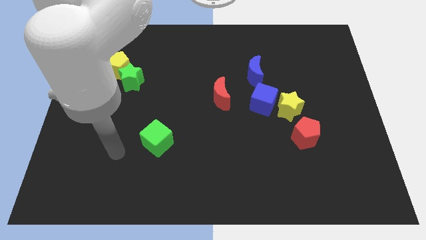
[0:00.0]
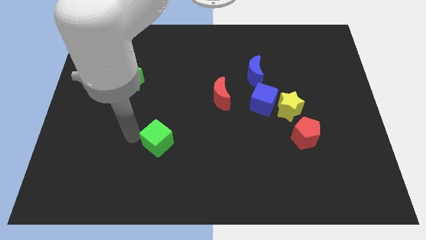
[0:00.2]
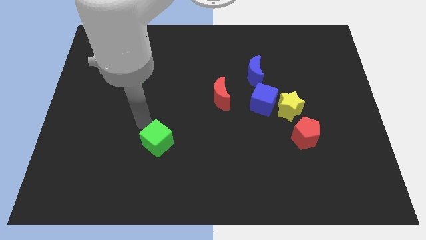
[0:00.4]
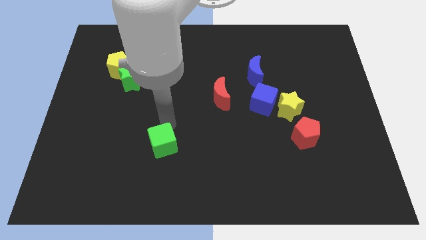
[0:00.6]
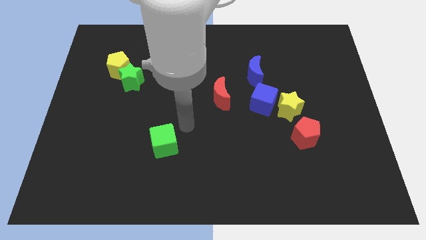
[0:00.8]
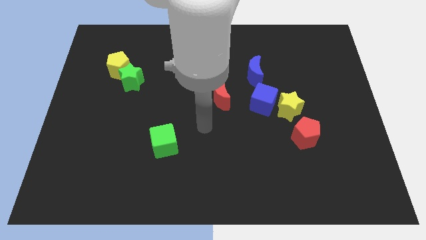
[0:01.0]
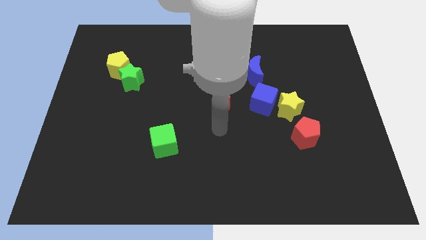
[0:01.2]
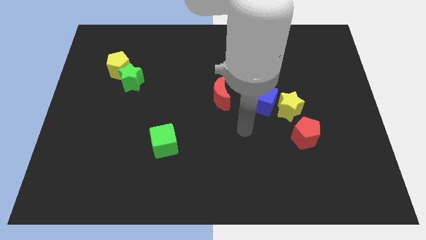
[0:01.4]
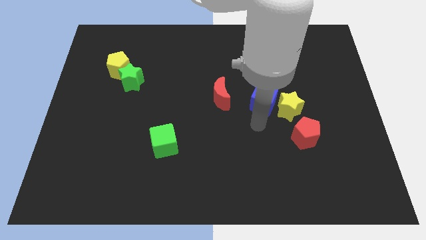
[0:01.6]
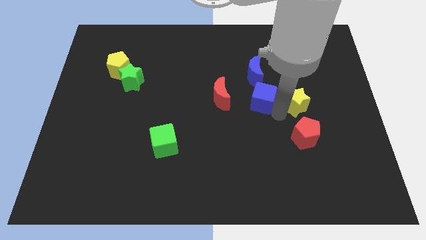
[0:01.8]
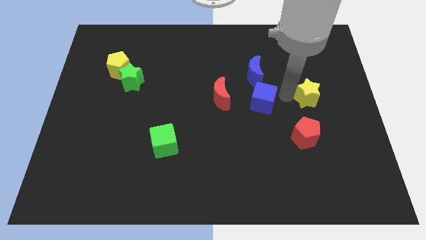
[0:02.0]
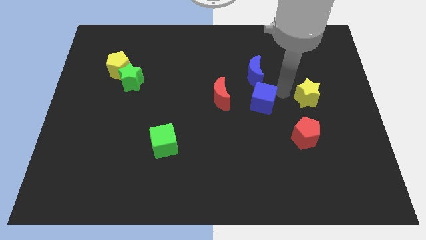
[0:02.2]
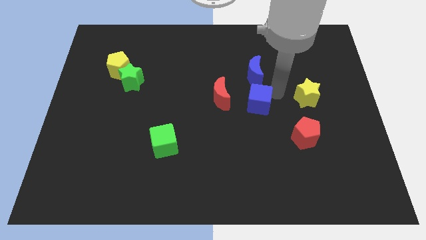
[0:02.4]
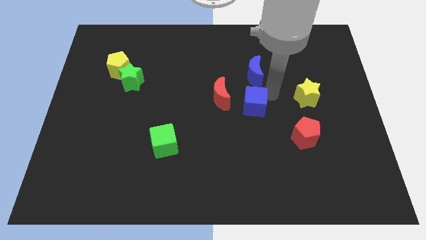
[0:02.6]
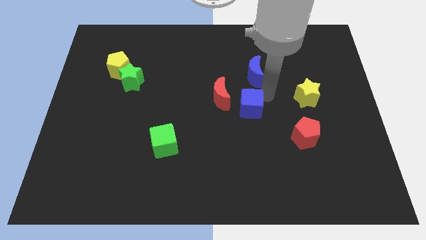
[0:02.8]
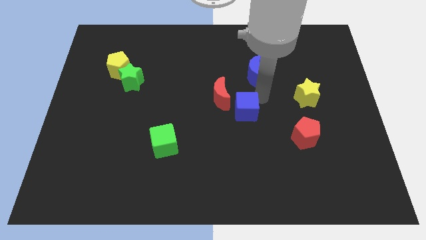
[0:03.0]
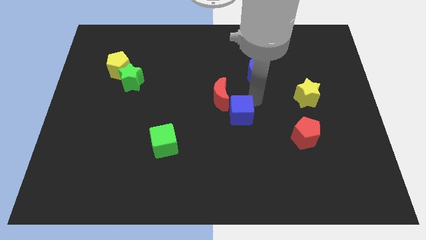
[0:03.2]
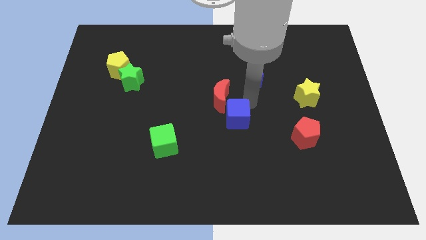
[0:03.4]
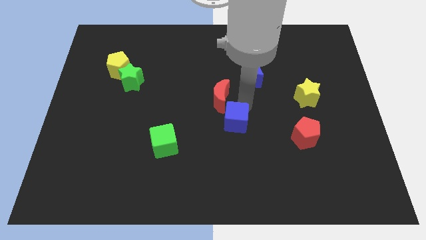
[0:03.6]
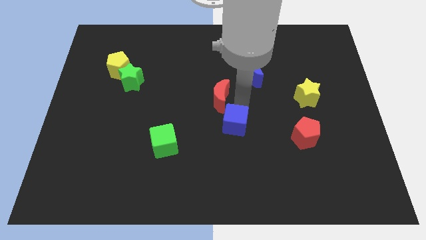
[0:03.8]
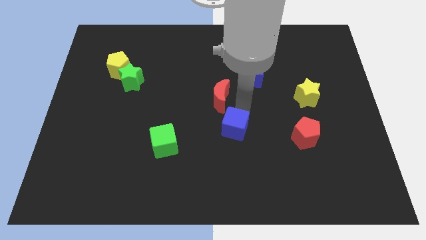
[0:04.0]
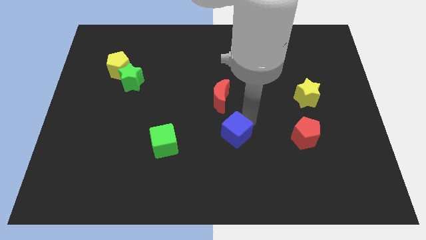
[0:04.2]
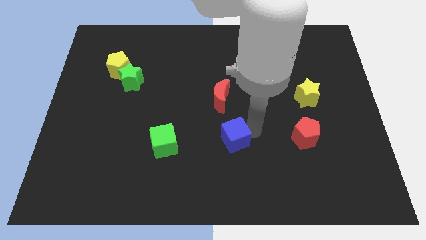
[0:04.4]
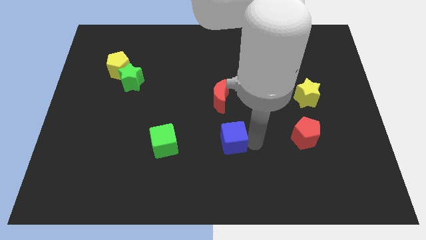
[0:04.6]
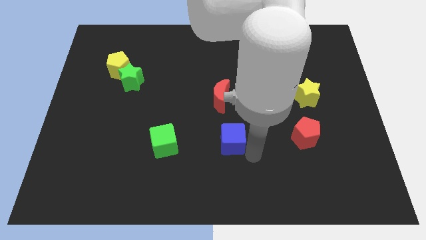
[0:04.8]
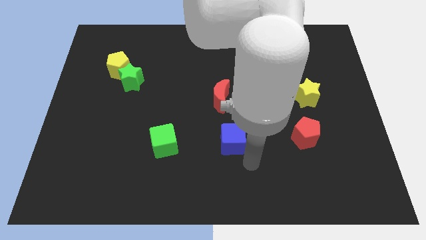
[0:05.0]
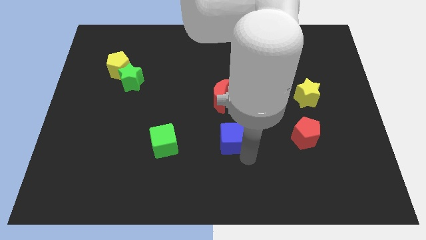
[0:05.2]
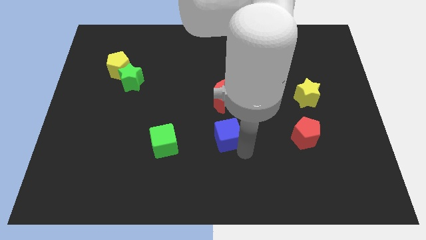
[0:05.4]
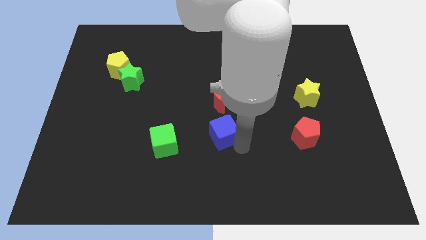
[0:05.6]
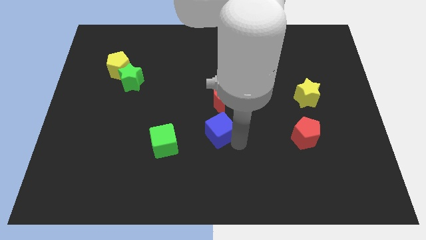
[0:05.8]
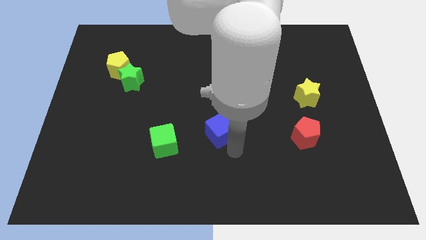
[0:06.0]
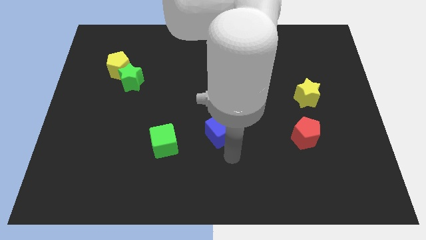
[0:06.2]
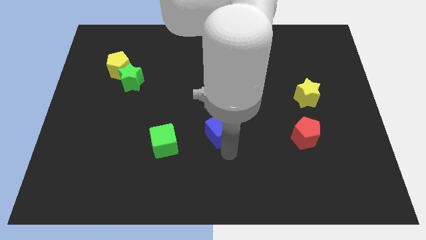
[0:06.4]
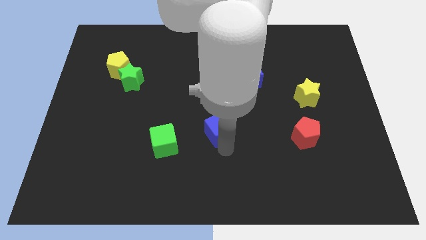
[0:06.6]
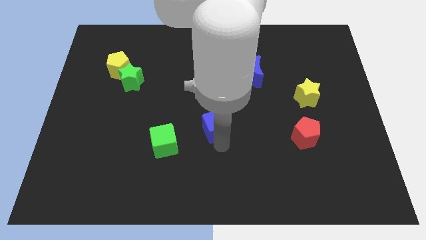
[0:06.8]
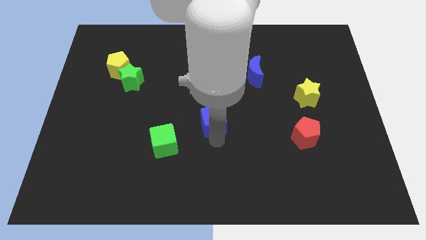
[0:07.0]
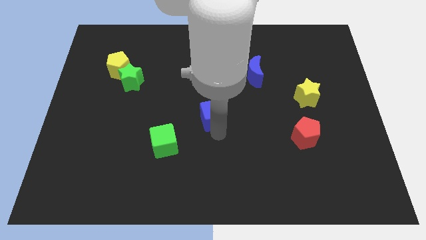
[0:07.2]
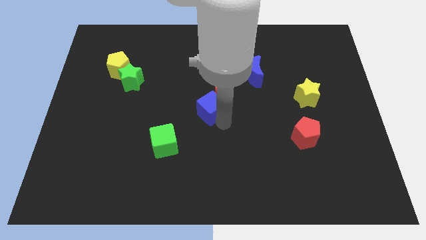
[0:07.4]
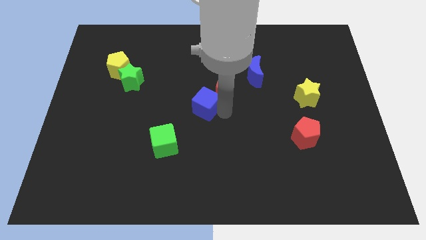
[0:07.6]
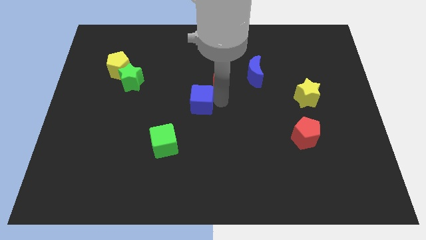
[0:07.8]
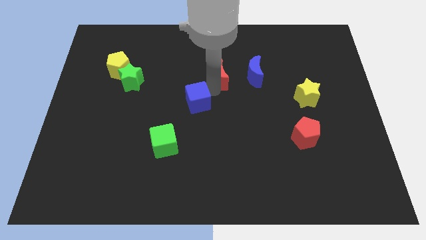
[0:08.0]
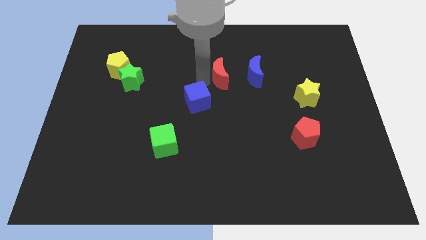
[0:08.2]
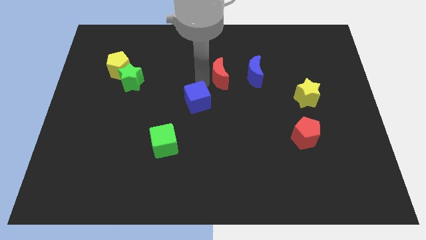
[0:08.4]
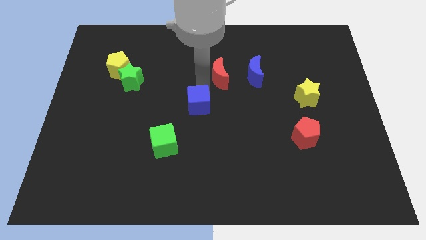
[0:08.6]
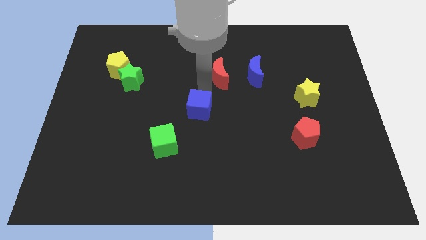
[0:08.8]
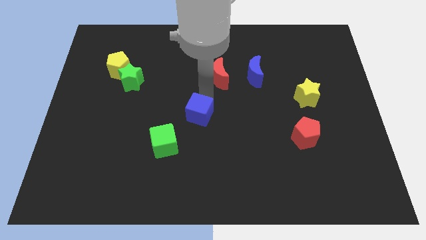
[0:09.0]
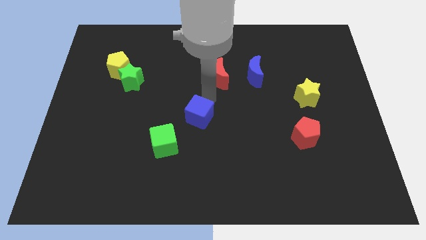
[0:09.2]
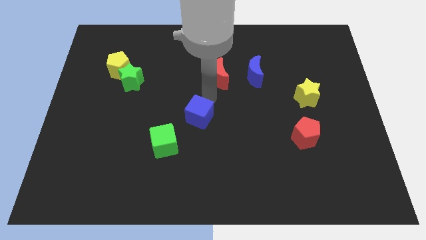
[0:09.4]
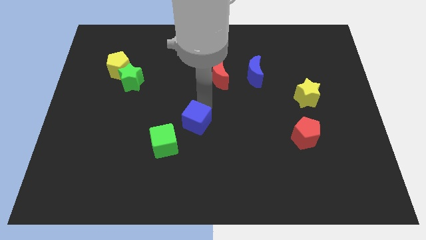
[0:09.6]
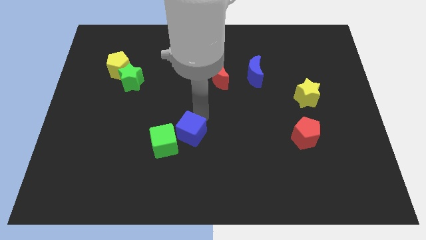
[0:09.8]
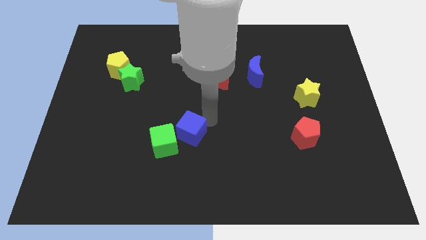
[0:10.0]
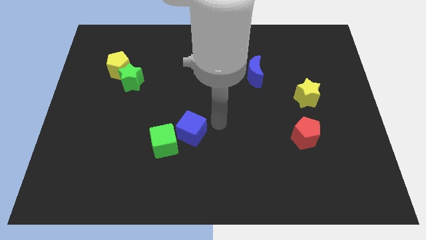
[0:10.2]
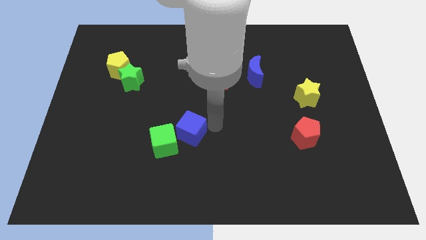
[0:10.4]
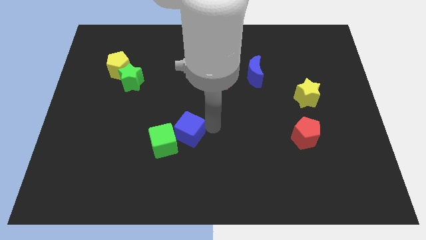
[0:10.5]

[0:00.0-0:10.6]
slide the blue cube next to the green cube

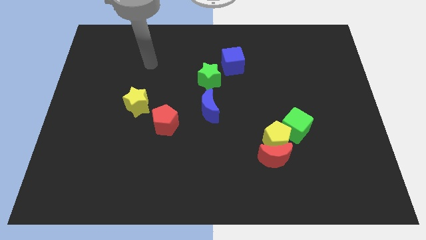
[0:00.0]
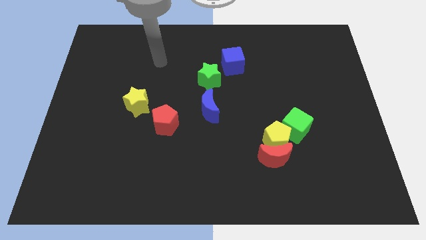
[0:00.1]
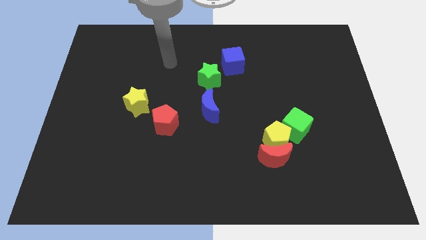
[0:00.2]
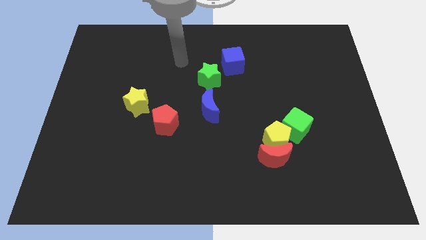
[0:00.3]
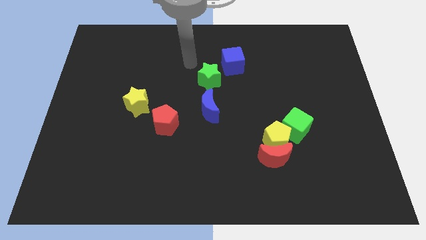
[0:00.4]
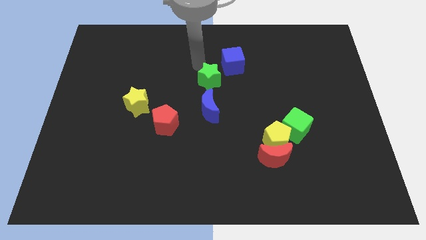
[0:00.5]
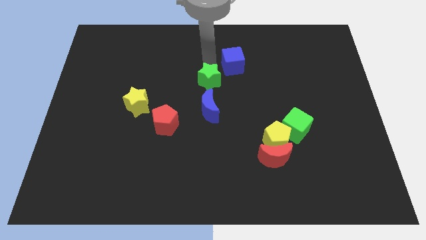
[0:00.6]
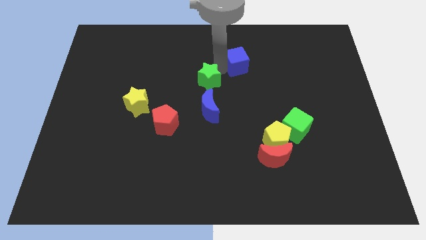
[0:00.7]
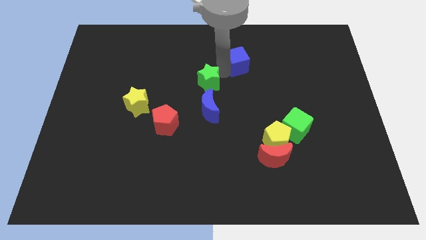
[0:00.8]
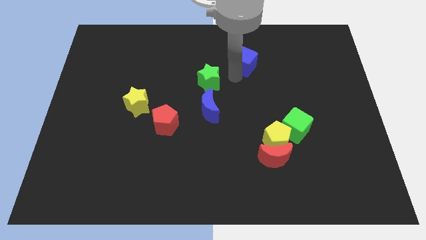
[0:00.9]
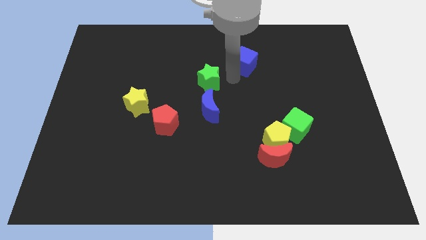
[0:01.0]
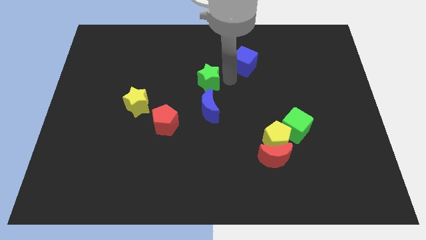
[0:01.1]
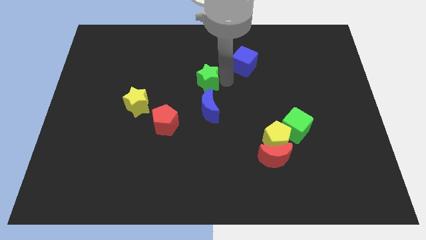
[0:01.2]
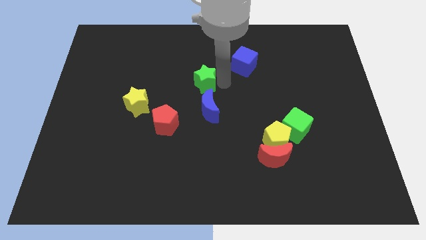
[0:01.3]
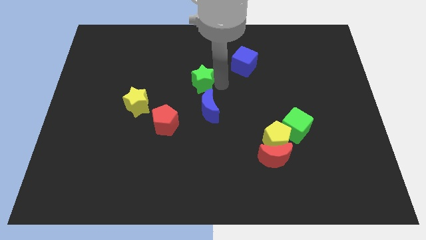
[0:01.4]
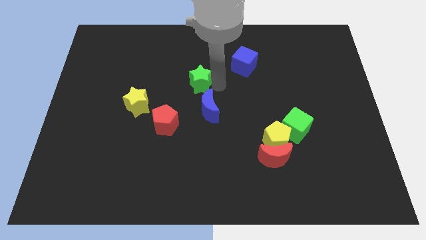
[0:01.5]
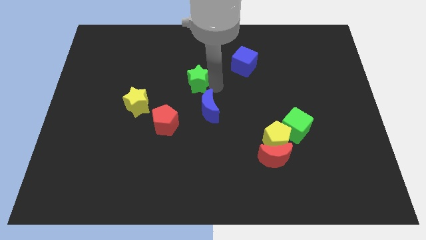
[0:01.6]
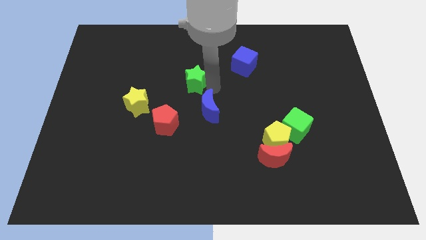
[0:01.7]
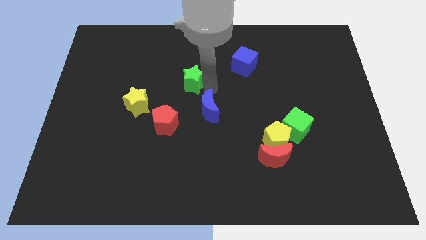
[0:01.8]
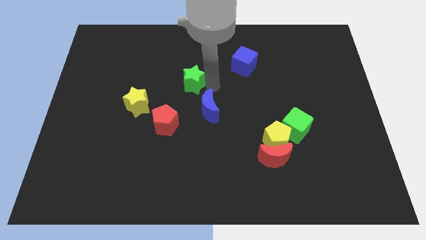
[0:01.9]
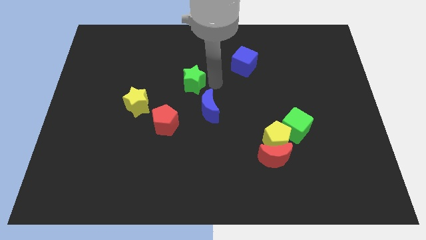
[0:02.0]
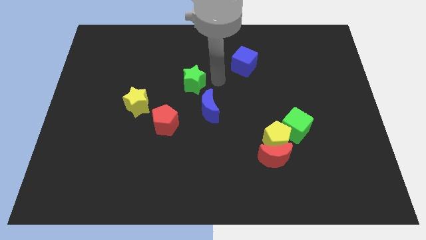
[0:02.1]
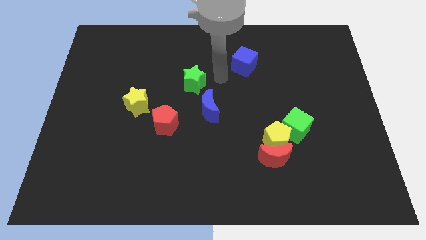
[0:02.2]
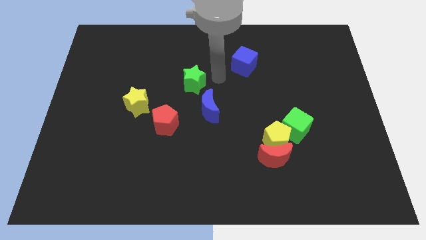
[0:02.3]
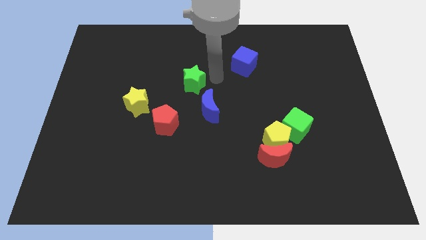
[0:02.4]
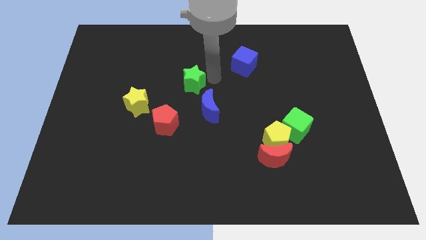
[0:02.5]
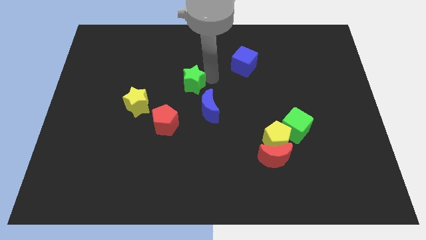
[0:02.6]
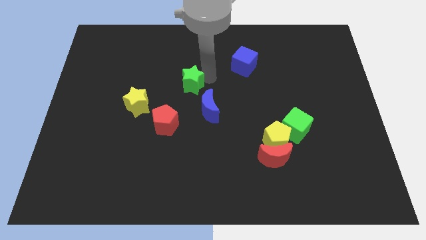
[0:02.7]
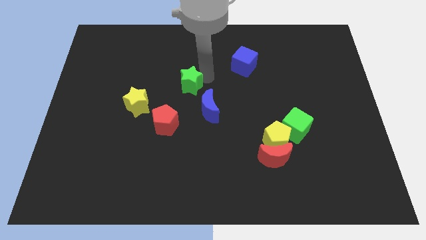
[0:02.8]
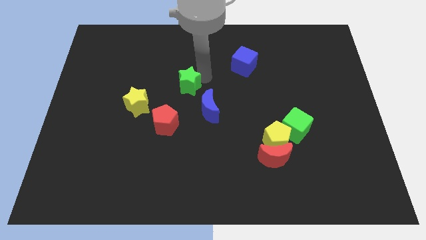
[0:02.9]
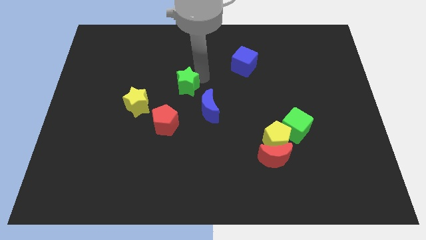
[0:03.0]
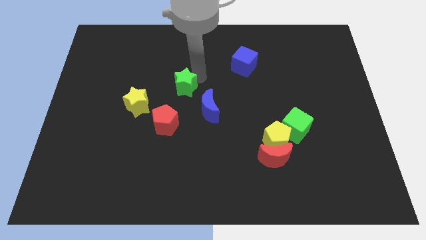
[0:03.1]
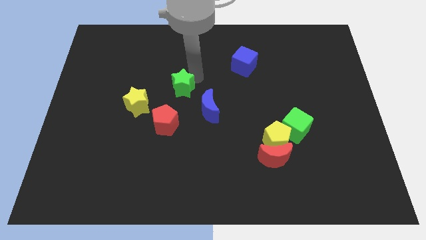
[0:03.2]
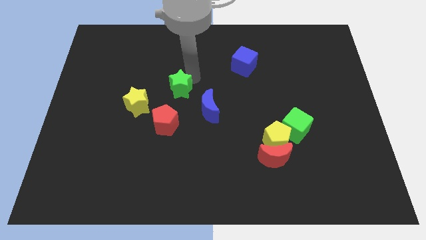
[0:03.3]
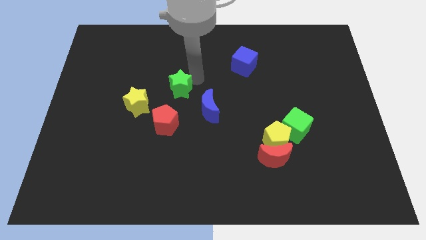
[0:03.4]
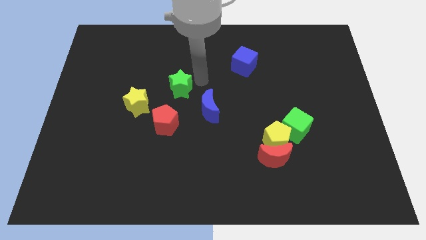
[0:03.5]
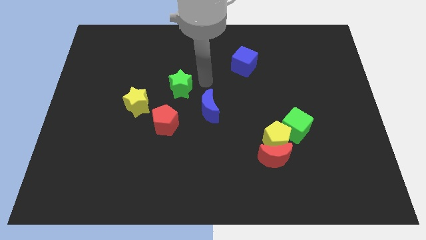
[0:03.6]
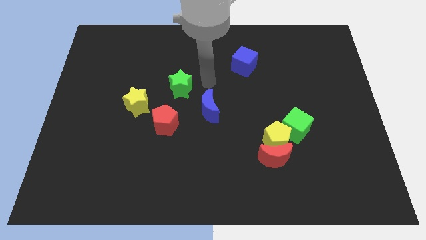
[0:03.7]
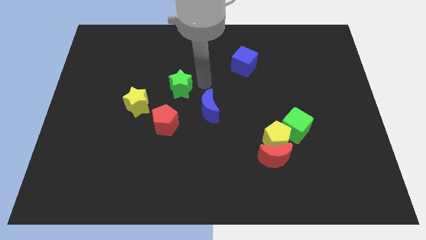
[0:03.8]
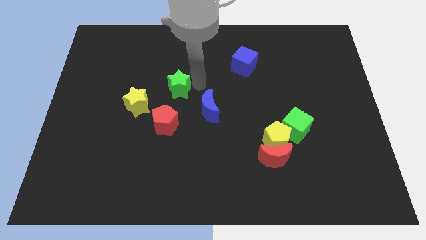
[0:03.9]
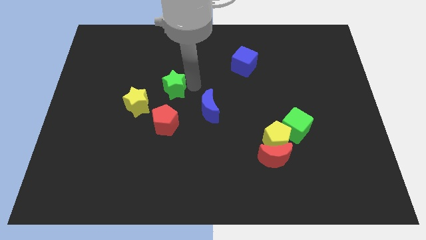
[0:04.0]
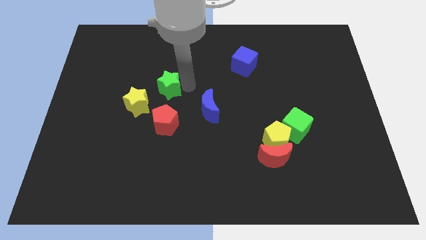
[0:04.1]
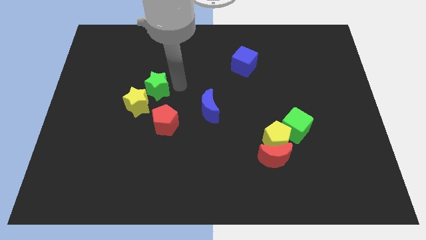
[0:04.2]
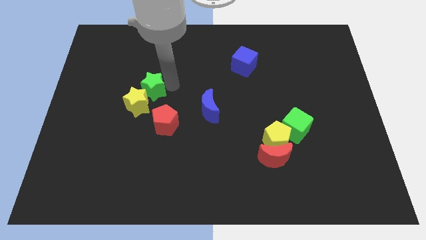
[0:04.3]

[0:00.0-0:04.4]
put the green star next to the yellow star
